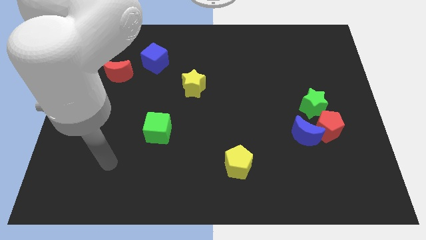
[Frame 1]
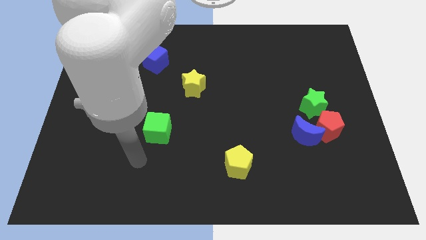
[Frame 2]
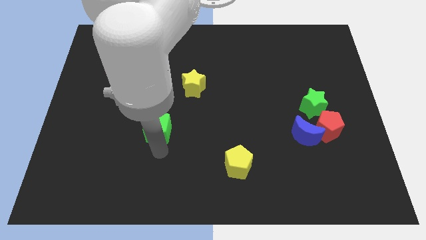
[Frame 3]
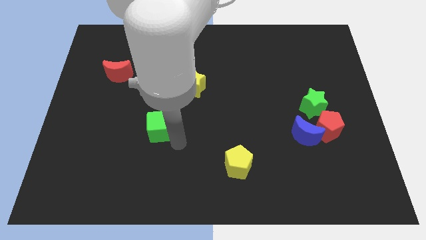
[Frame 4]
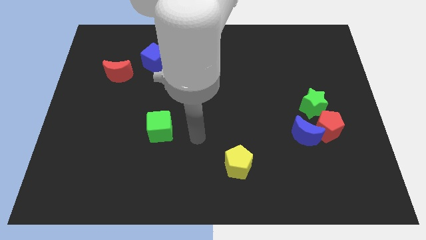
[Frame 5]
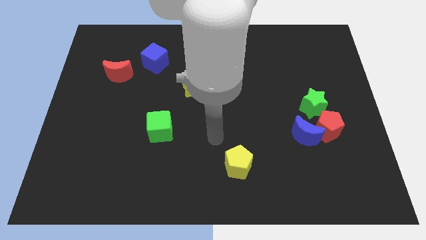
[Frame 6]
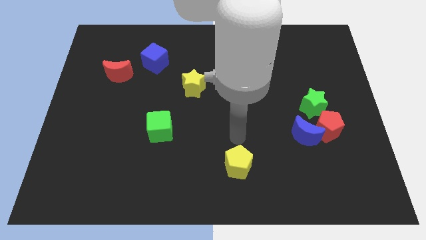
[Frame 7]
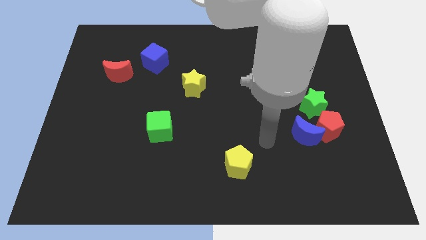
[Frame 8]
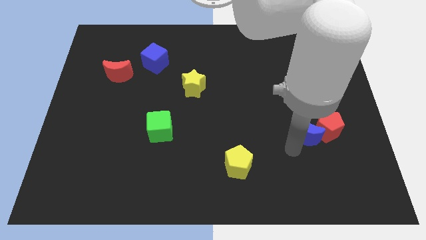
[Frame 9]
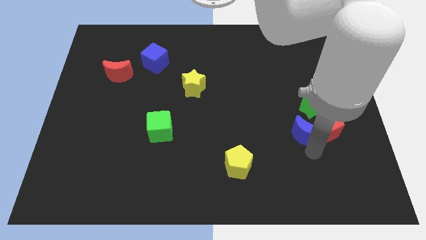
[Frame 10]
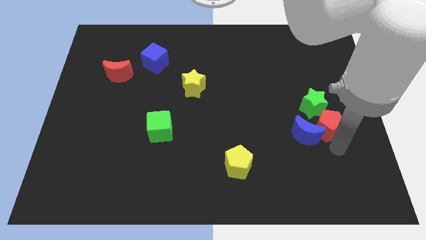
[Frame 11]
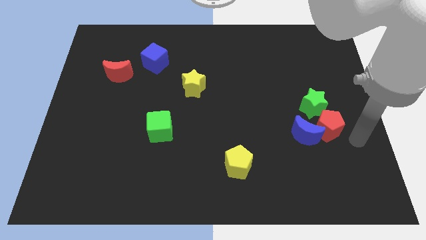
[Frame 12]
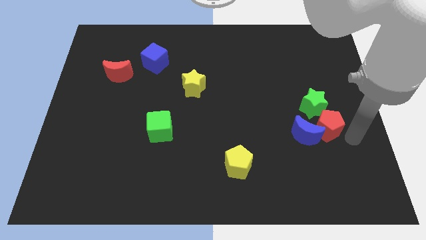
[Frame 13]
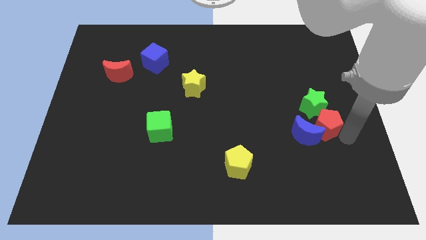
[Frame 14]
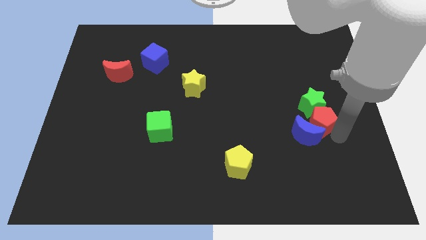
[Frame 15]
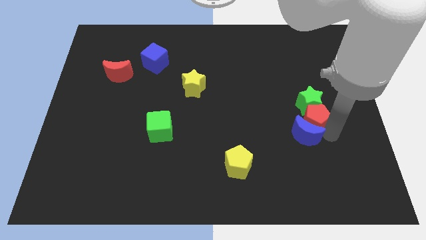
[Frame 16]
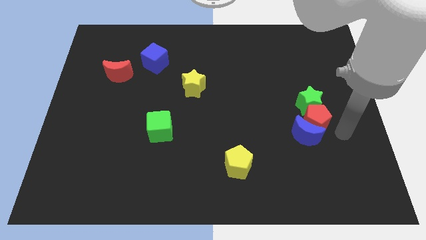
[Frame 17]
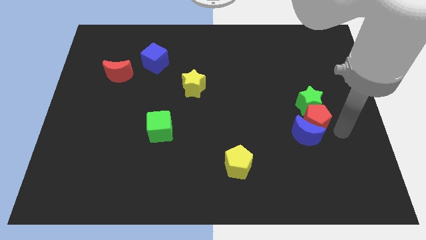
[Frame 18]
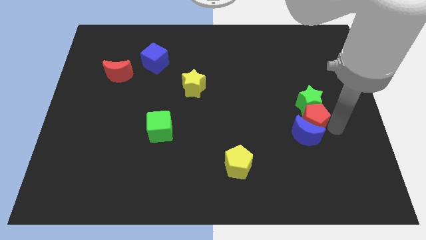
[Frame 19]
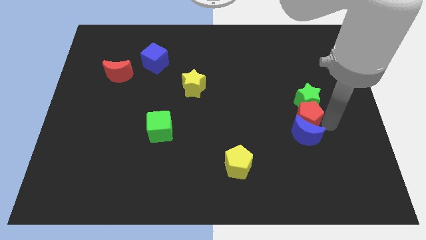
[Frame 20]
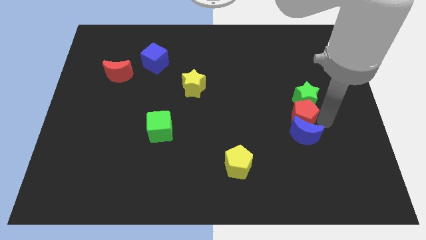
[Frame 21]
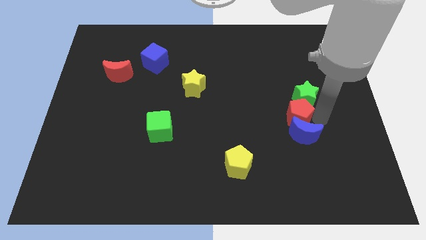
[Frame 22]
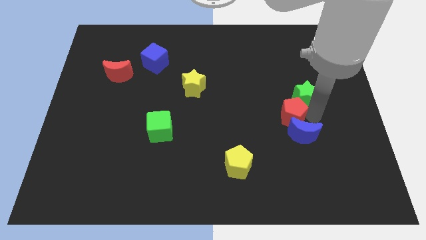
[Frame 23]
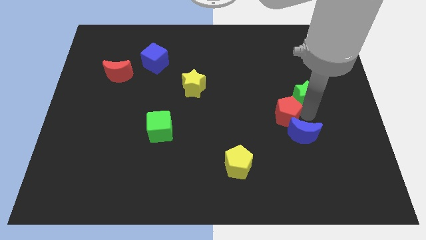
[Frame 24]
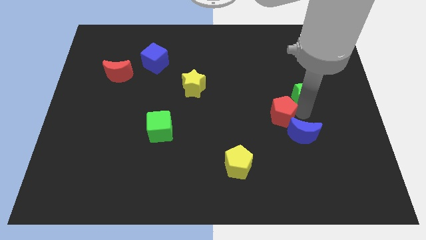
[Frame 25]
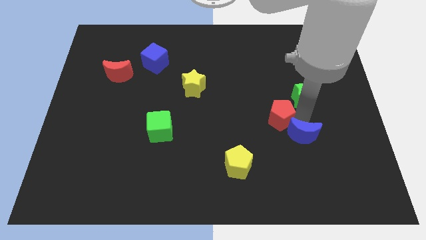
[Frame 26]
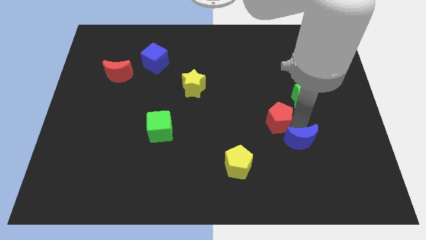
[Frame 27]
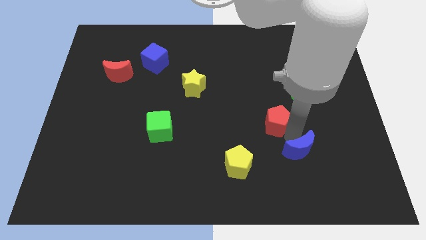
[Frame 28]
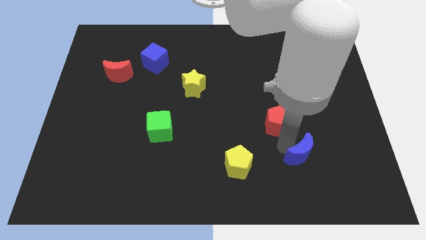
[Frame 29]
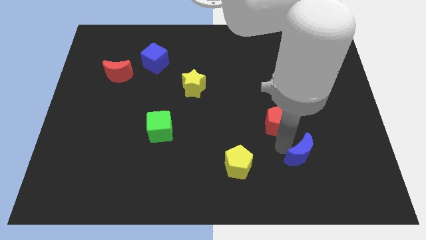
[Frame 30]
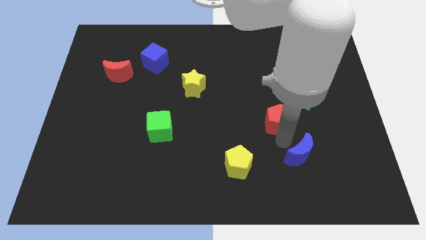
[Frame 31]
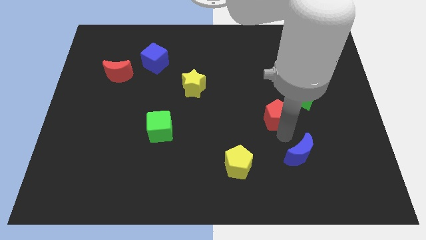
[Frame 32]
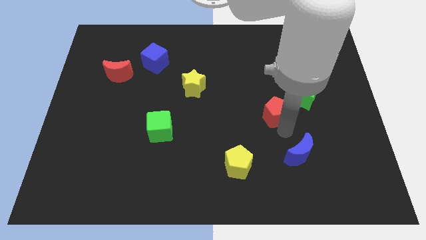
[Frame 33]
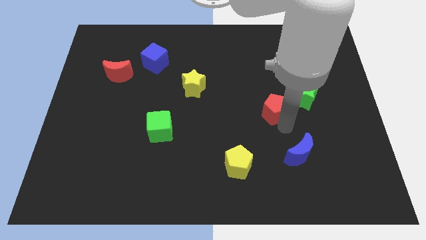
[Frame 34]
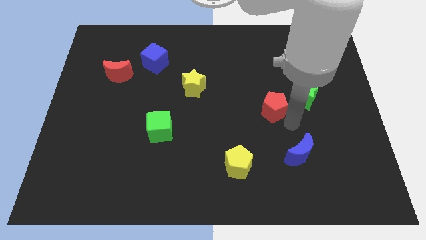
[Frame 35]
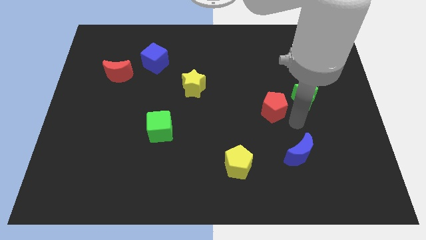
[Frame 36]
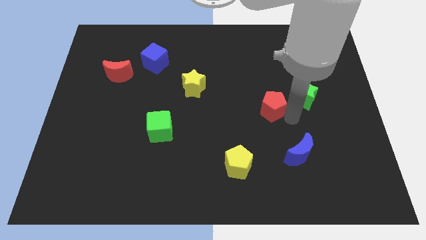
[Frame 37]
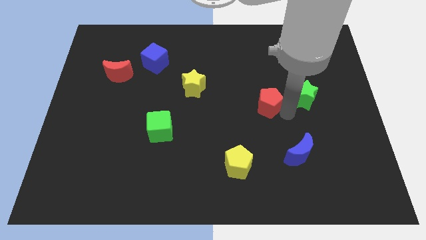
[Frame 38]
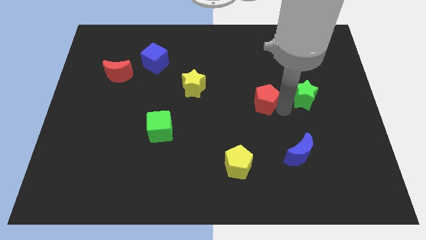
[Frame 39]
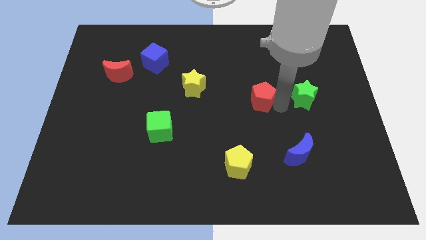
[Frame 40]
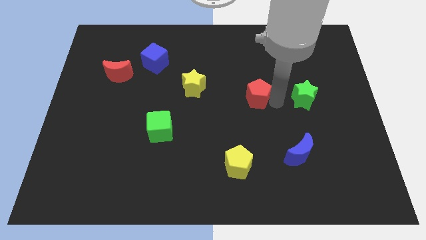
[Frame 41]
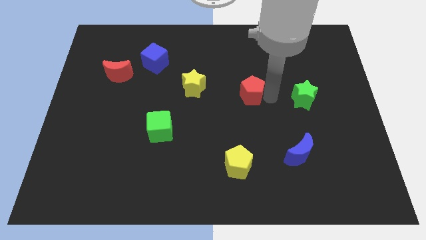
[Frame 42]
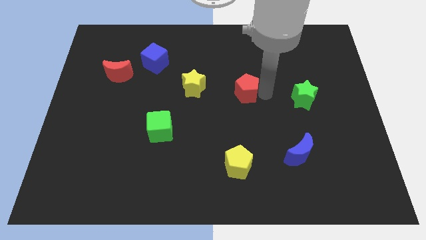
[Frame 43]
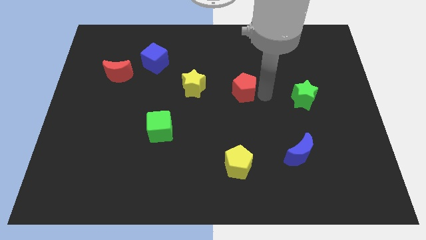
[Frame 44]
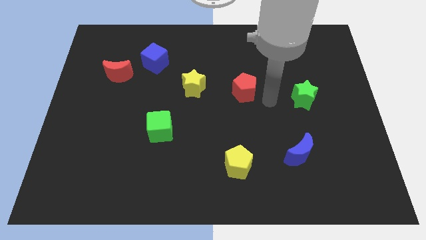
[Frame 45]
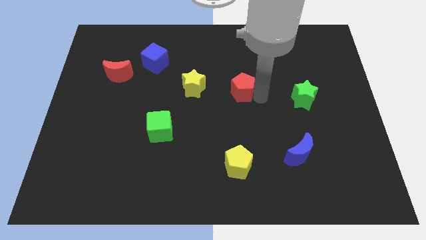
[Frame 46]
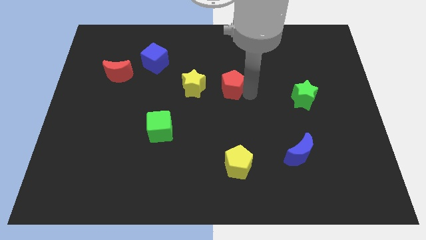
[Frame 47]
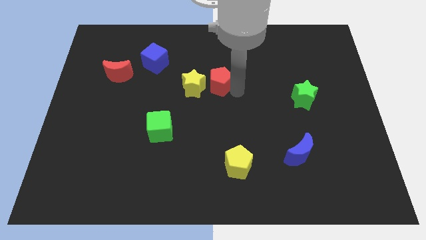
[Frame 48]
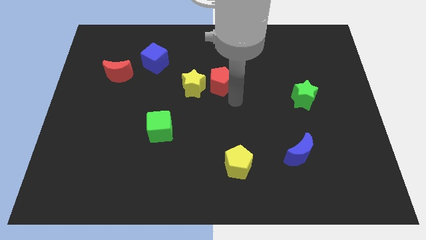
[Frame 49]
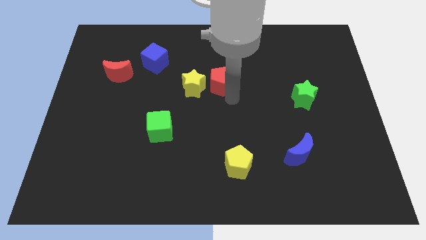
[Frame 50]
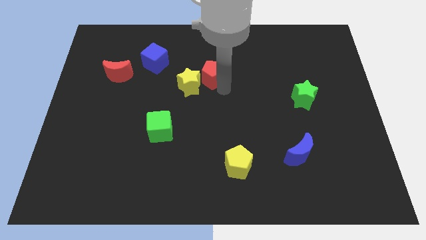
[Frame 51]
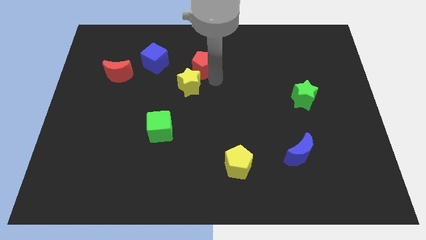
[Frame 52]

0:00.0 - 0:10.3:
slide the red pentagon above the yellow star

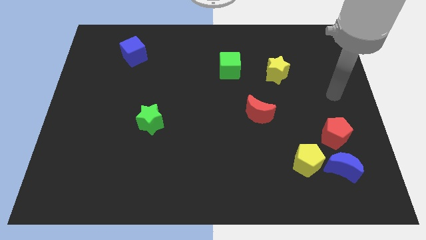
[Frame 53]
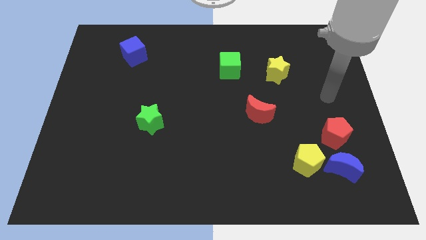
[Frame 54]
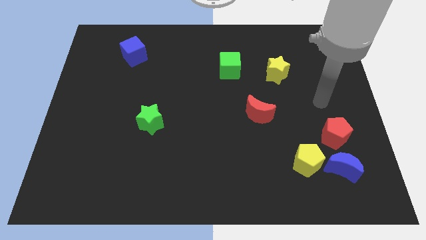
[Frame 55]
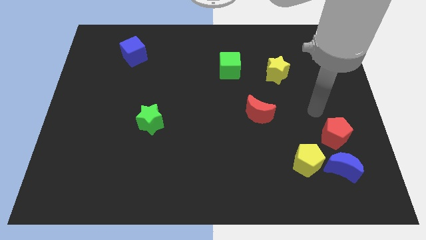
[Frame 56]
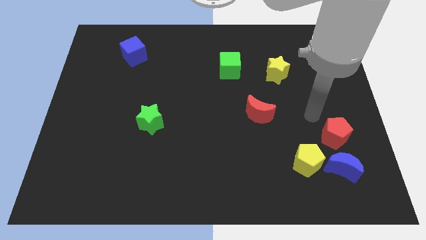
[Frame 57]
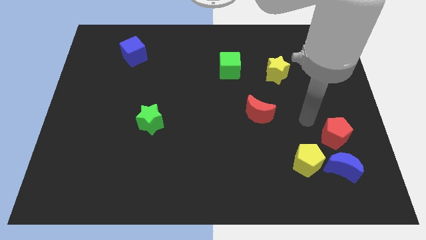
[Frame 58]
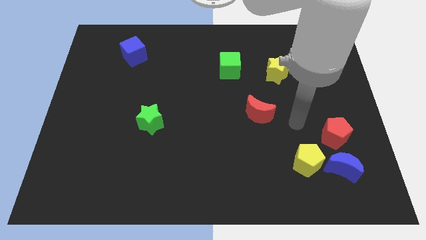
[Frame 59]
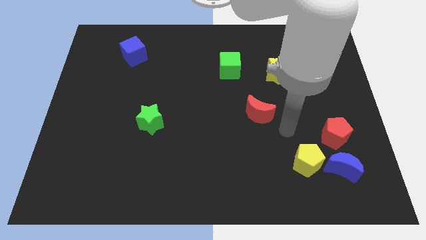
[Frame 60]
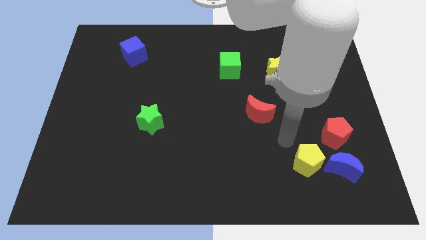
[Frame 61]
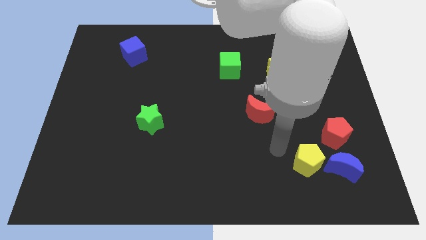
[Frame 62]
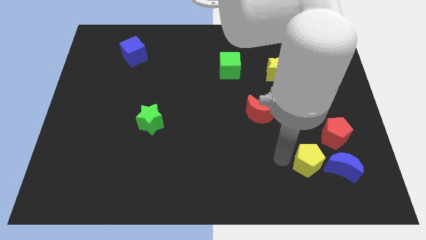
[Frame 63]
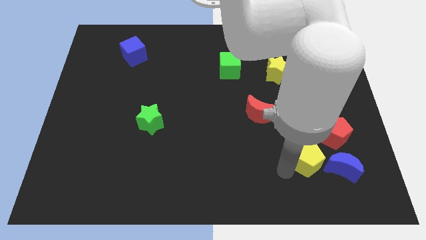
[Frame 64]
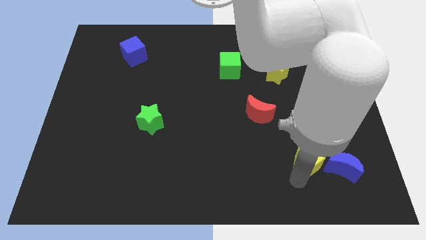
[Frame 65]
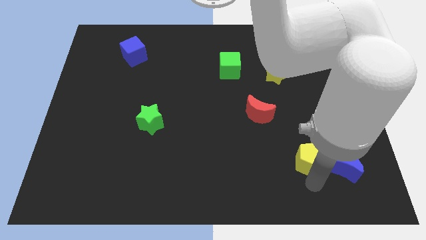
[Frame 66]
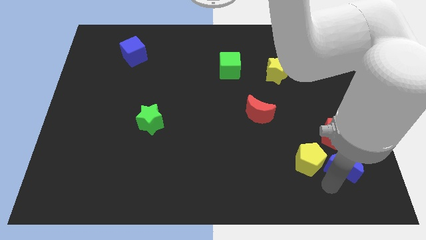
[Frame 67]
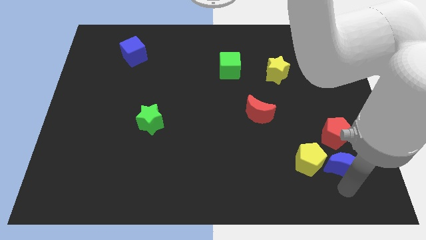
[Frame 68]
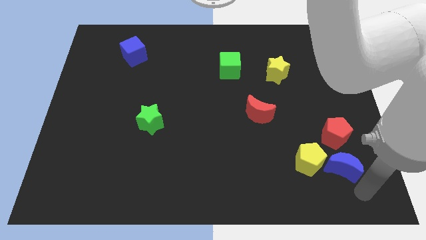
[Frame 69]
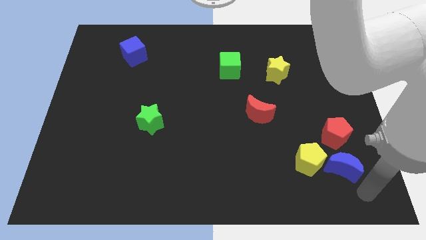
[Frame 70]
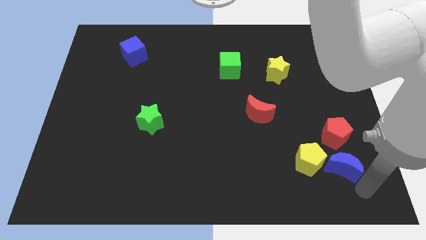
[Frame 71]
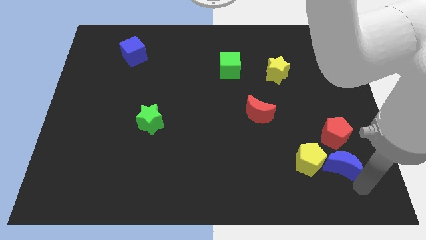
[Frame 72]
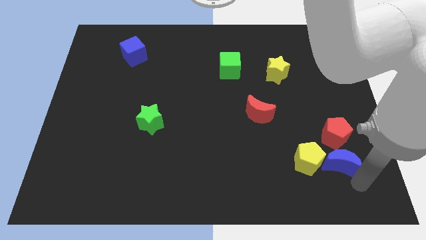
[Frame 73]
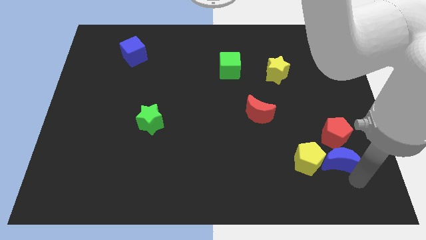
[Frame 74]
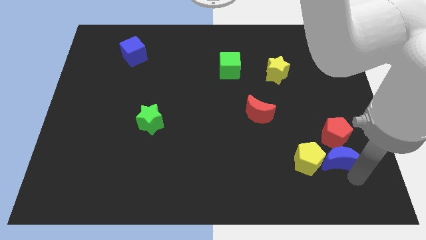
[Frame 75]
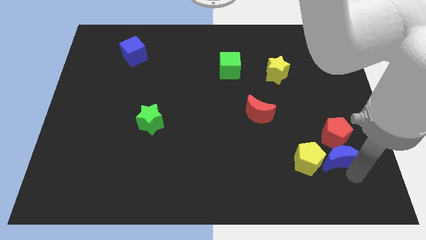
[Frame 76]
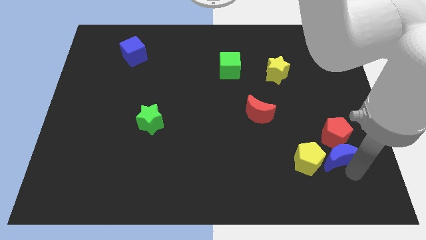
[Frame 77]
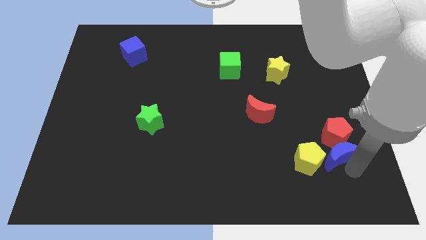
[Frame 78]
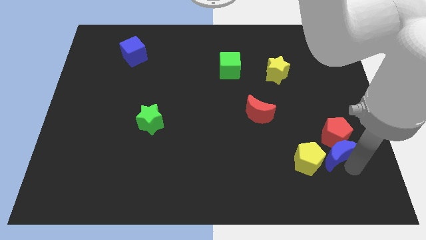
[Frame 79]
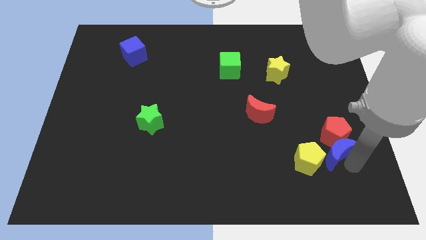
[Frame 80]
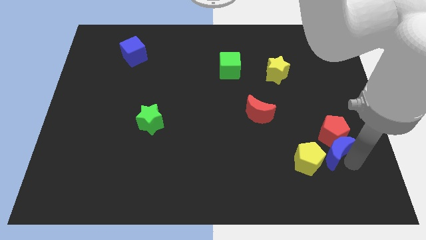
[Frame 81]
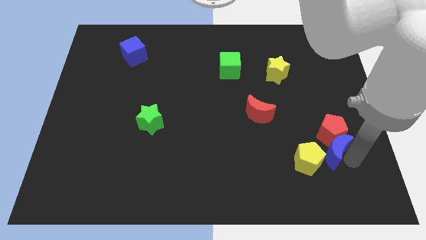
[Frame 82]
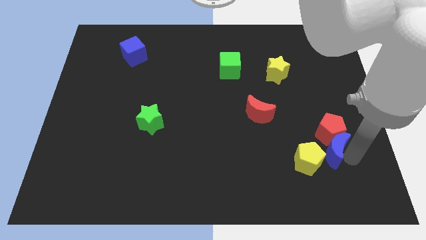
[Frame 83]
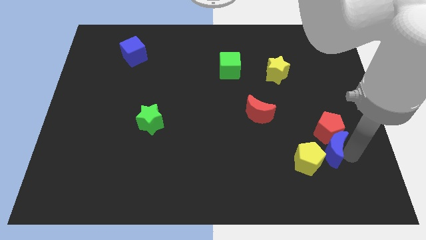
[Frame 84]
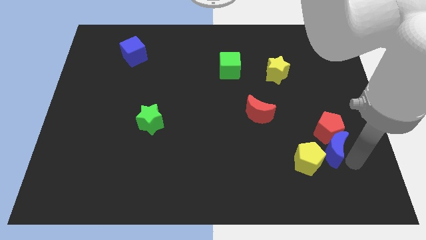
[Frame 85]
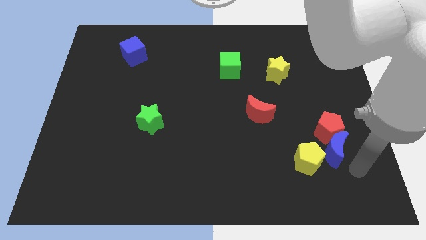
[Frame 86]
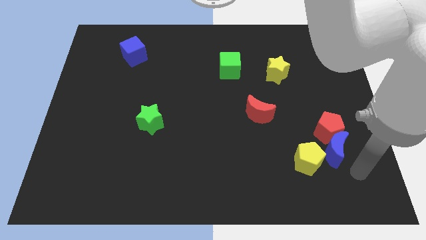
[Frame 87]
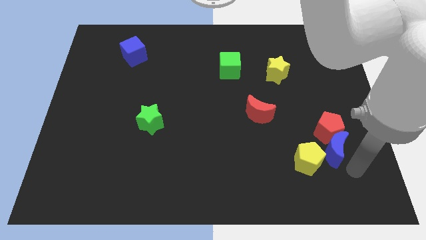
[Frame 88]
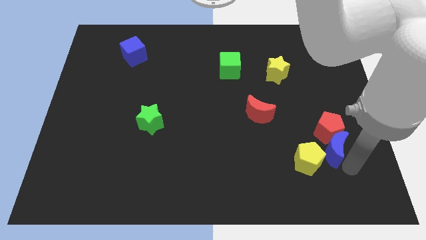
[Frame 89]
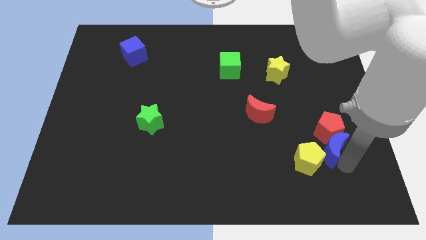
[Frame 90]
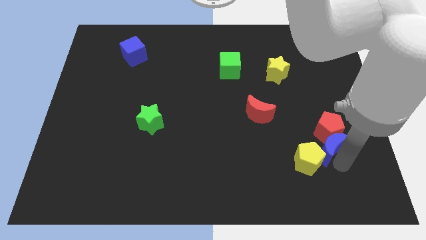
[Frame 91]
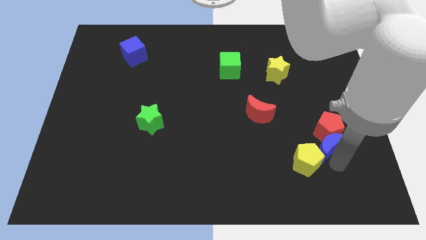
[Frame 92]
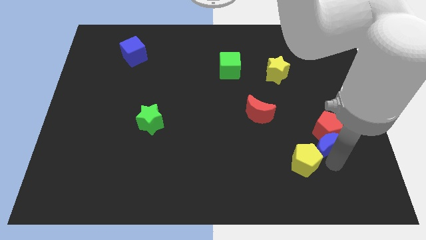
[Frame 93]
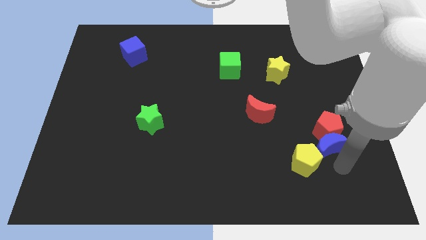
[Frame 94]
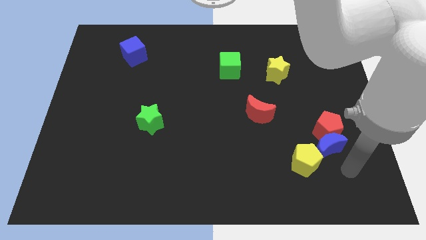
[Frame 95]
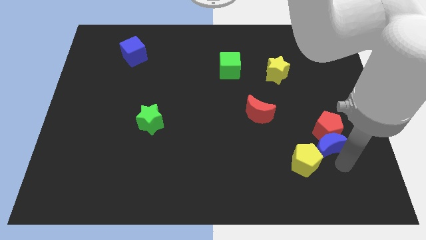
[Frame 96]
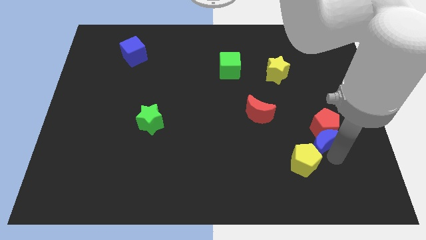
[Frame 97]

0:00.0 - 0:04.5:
put the blue moon to the top side of the yellow pentagon
